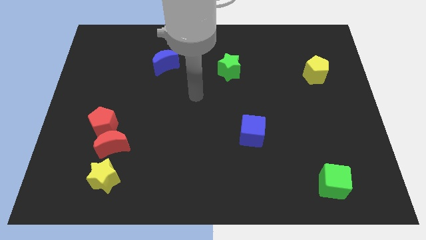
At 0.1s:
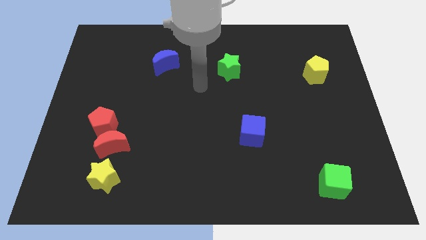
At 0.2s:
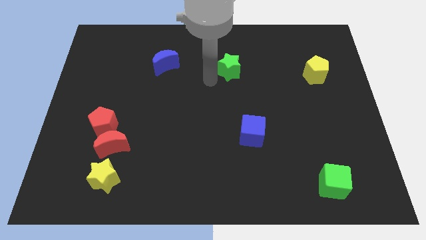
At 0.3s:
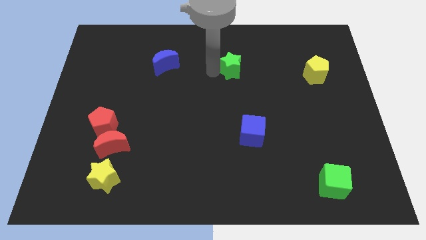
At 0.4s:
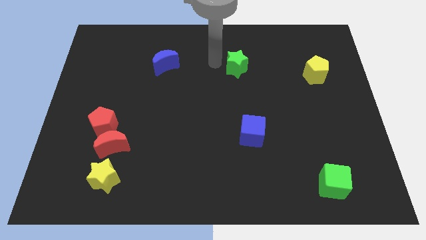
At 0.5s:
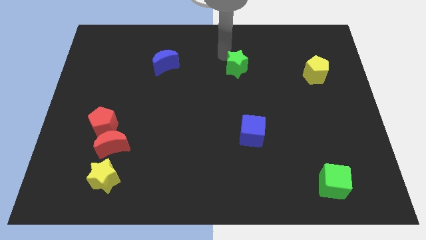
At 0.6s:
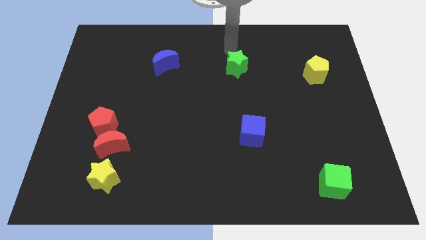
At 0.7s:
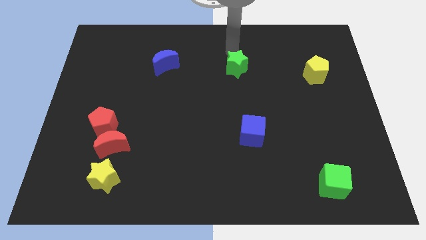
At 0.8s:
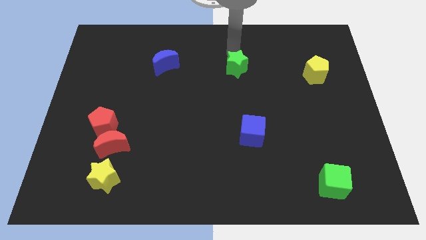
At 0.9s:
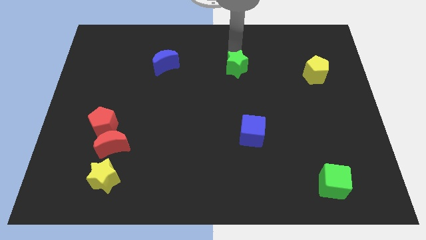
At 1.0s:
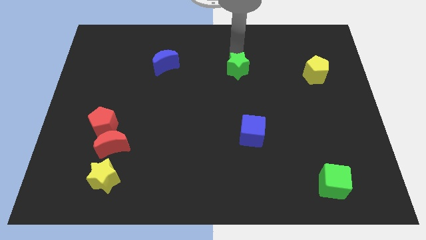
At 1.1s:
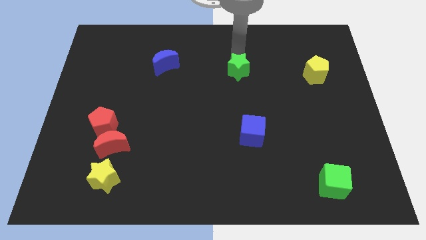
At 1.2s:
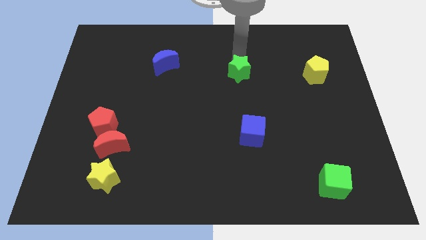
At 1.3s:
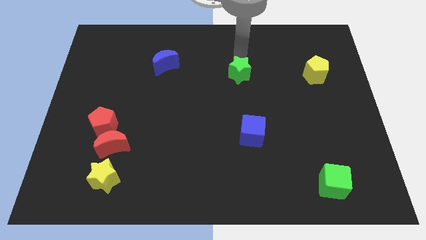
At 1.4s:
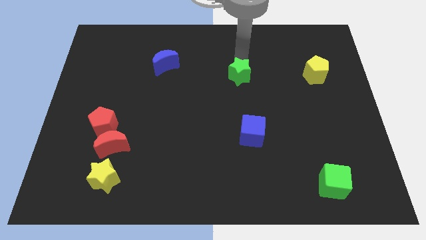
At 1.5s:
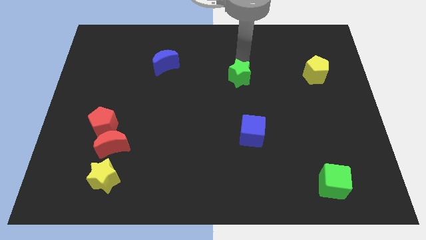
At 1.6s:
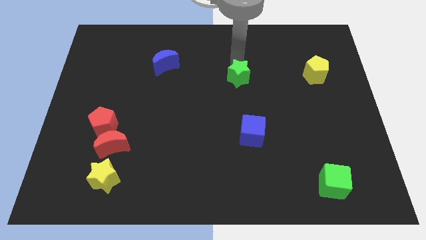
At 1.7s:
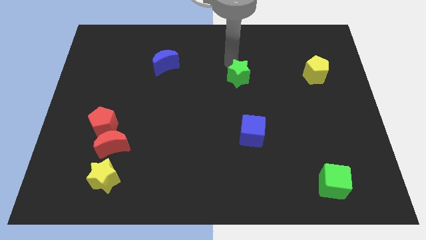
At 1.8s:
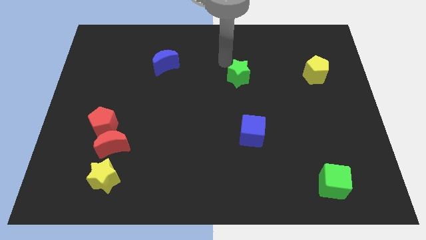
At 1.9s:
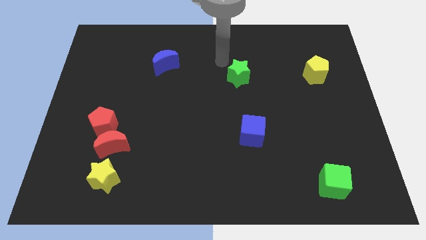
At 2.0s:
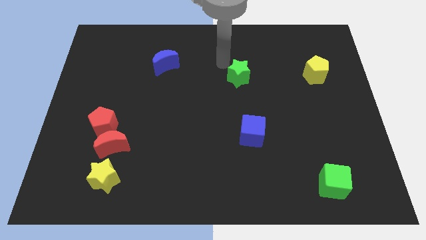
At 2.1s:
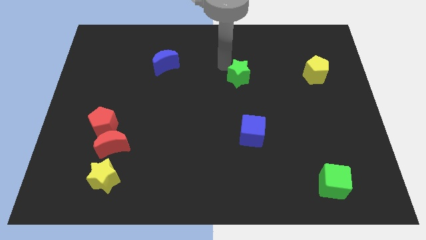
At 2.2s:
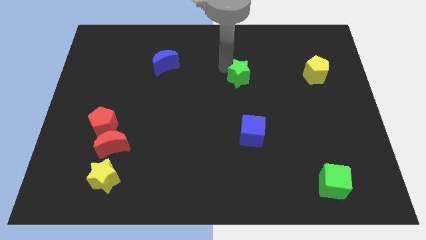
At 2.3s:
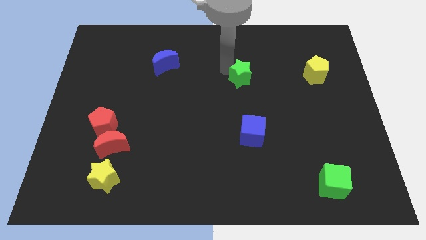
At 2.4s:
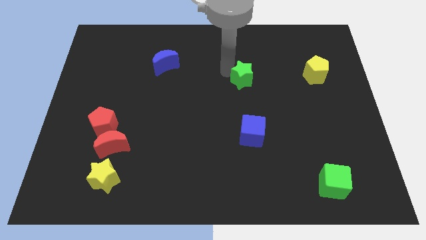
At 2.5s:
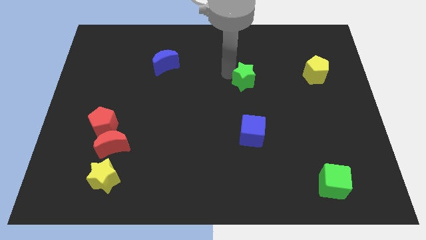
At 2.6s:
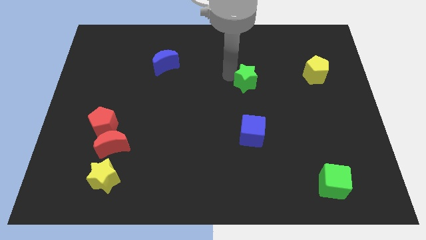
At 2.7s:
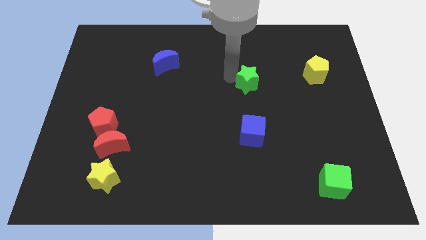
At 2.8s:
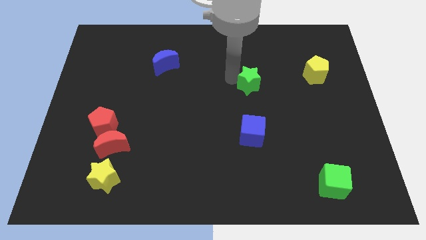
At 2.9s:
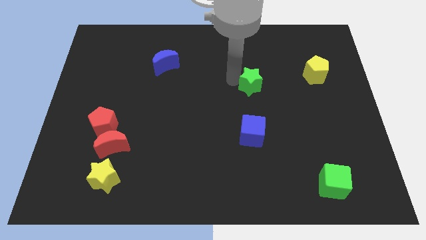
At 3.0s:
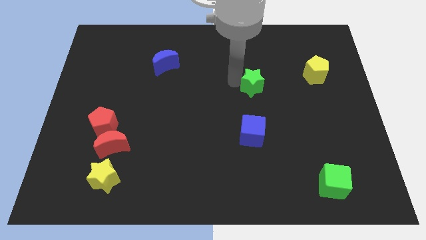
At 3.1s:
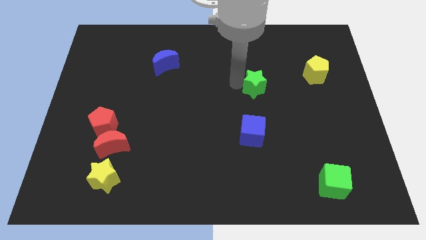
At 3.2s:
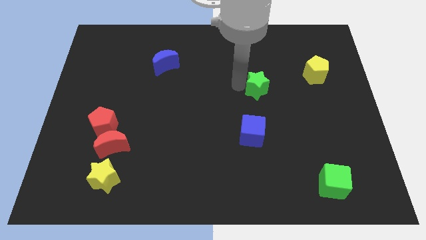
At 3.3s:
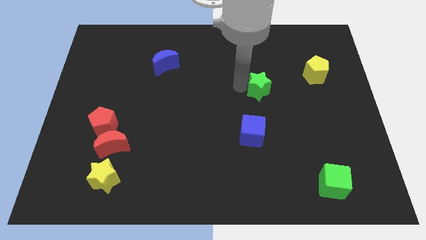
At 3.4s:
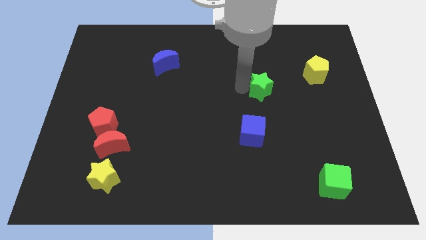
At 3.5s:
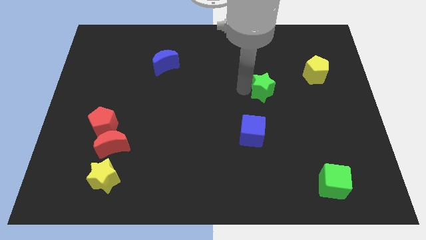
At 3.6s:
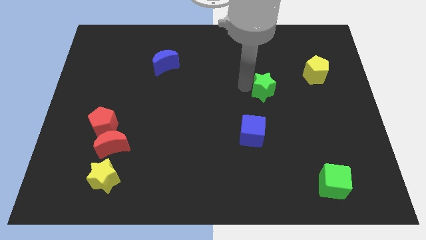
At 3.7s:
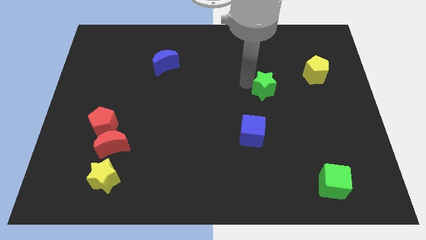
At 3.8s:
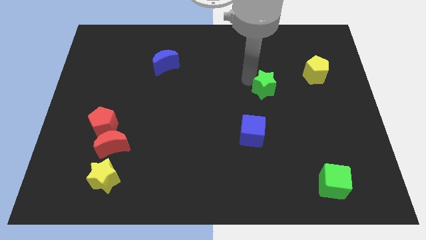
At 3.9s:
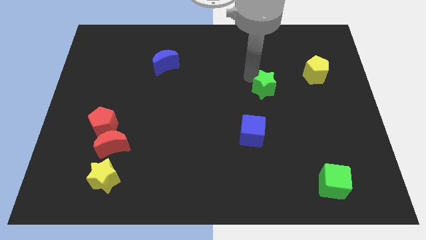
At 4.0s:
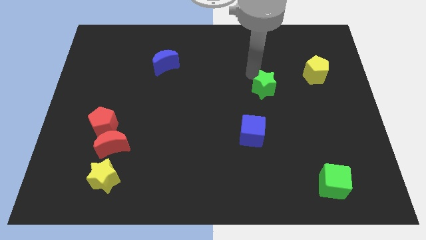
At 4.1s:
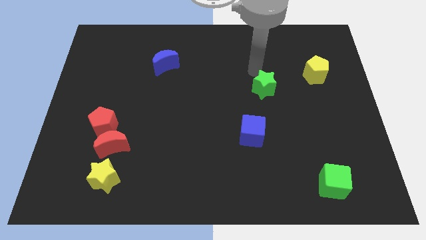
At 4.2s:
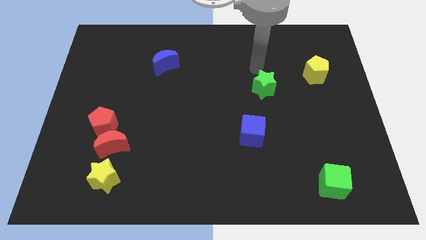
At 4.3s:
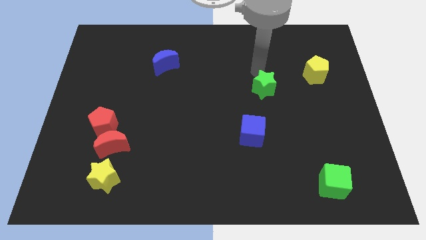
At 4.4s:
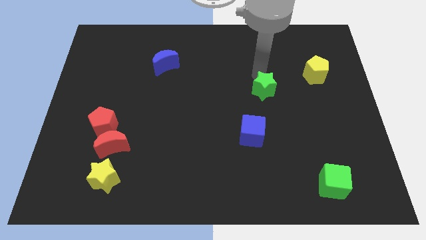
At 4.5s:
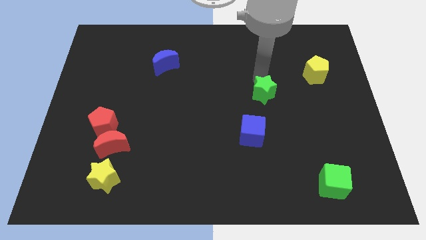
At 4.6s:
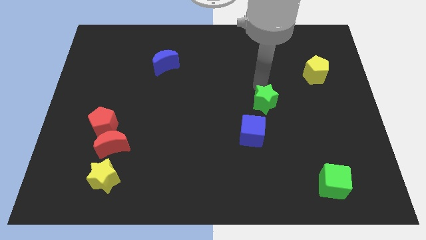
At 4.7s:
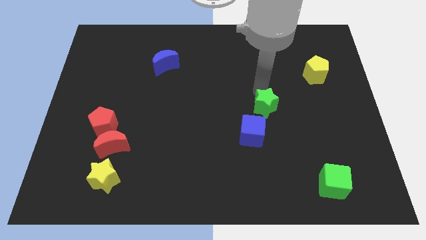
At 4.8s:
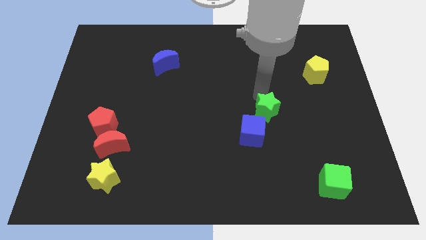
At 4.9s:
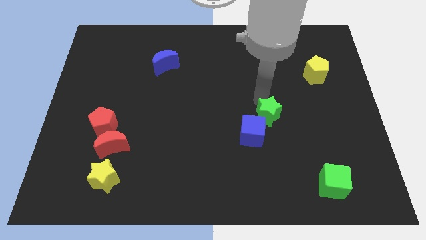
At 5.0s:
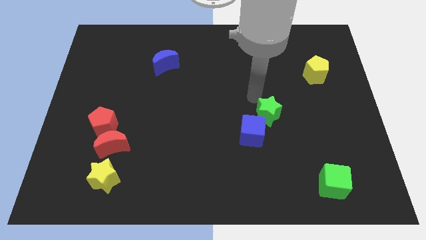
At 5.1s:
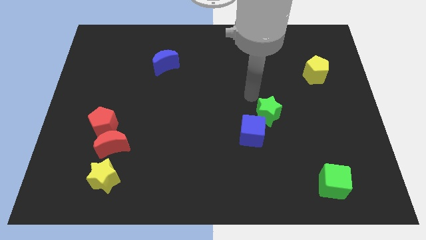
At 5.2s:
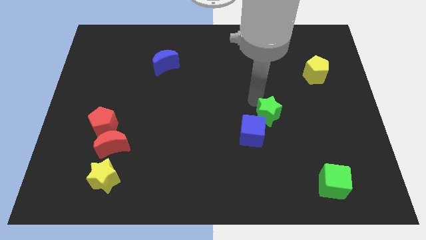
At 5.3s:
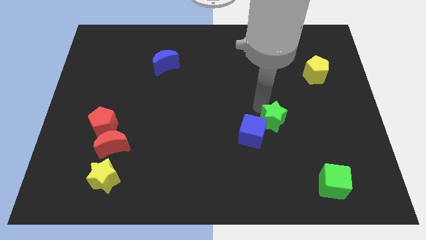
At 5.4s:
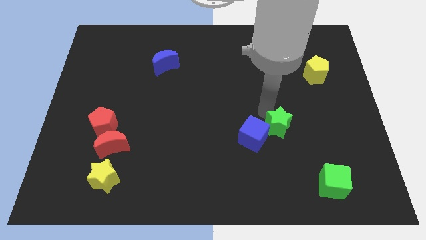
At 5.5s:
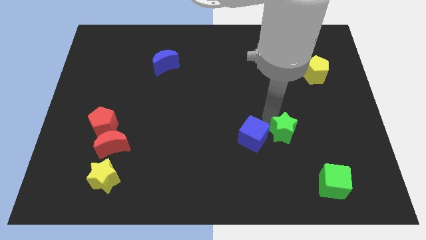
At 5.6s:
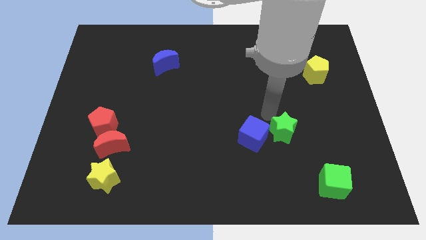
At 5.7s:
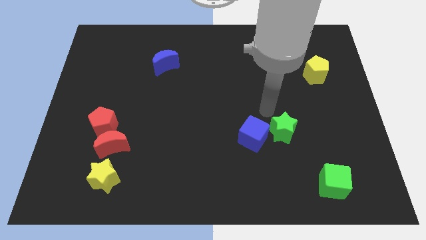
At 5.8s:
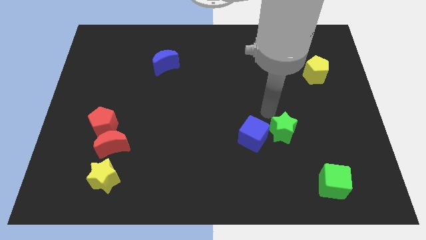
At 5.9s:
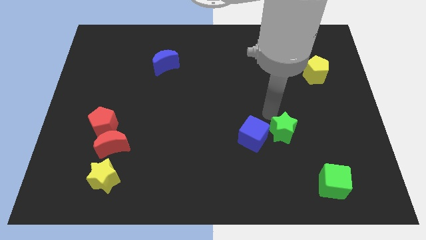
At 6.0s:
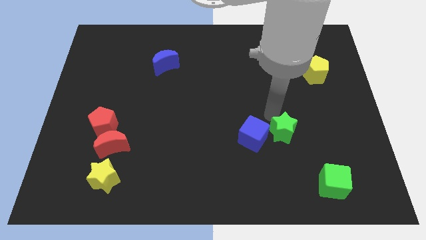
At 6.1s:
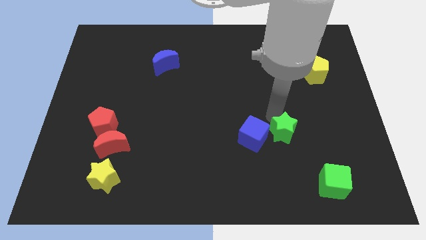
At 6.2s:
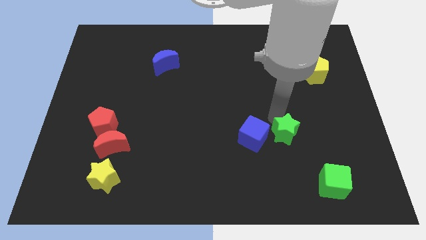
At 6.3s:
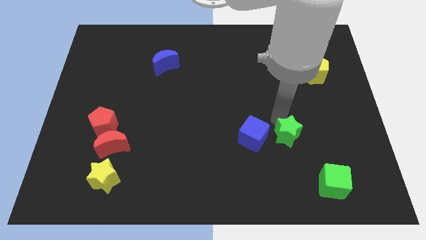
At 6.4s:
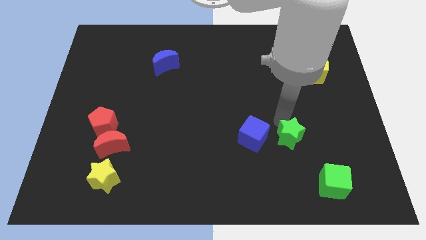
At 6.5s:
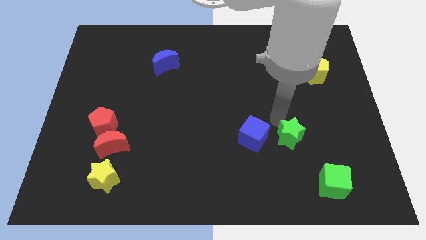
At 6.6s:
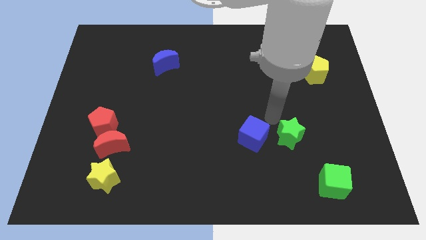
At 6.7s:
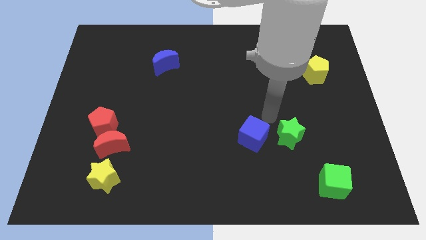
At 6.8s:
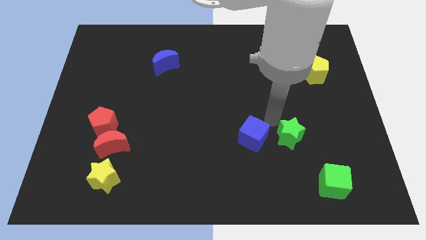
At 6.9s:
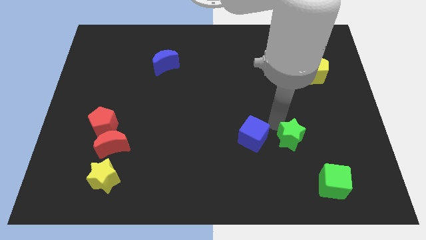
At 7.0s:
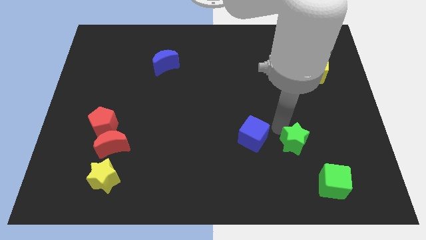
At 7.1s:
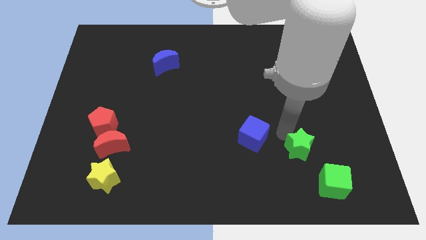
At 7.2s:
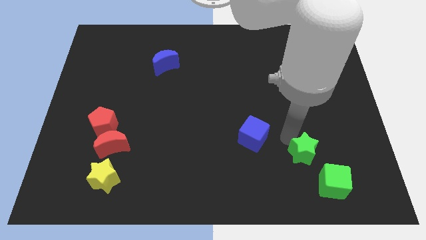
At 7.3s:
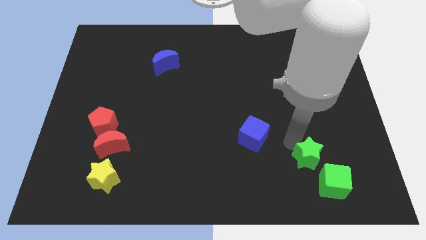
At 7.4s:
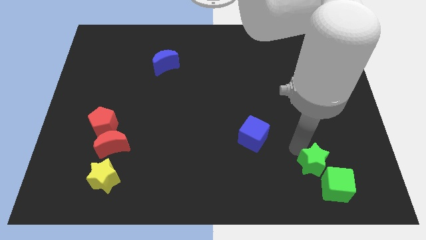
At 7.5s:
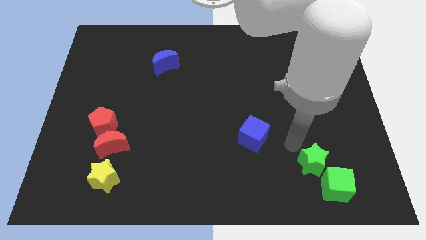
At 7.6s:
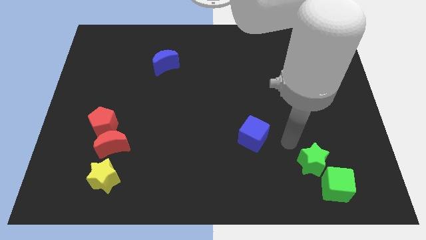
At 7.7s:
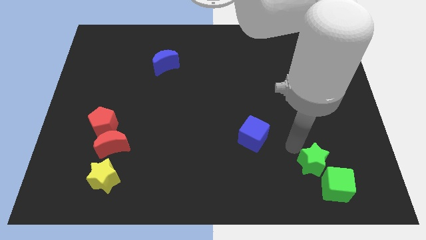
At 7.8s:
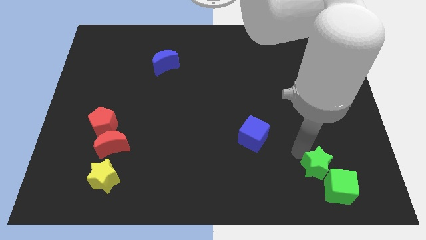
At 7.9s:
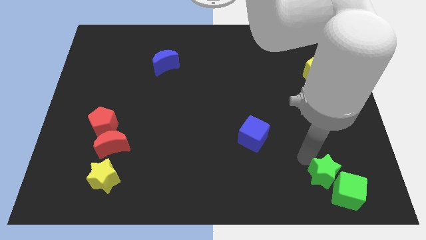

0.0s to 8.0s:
push the green star close to the green cube
